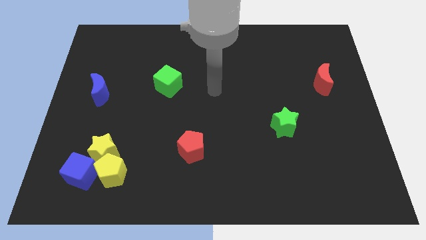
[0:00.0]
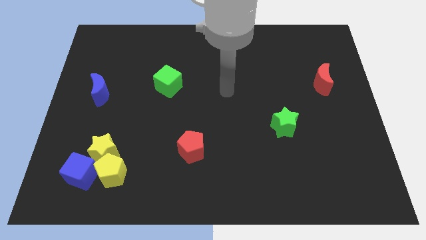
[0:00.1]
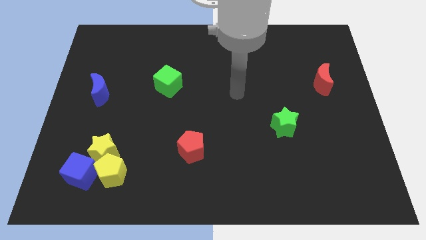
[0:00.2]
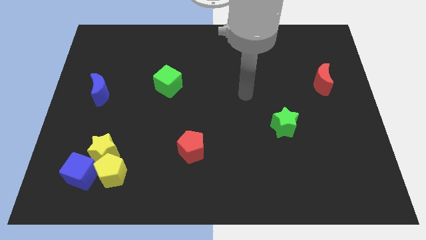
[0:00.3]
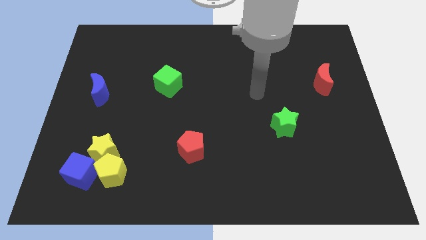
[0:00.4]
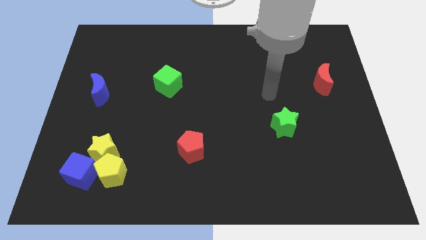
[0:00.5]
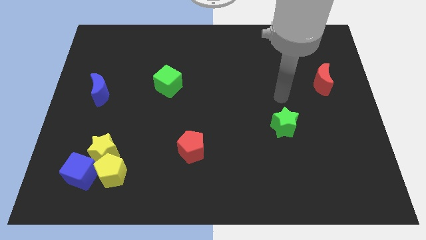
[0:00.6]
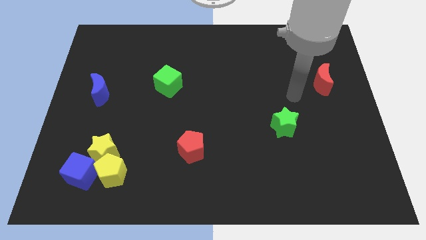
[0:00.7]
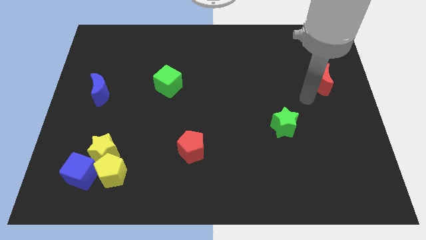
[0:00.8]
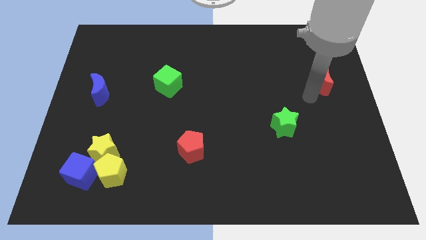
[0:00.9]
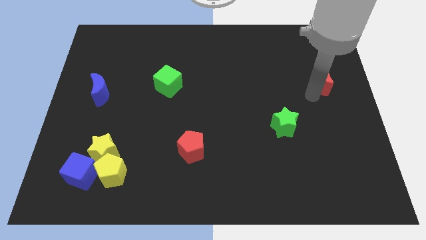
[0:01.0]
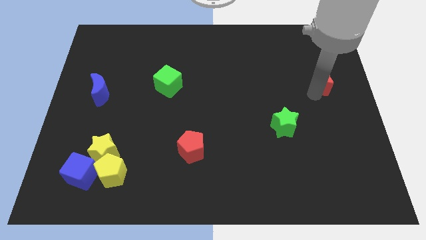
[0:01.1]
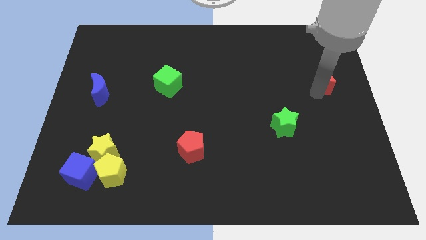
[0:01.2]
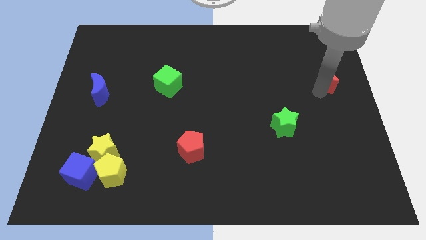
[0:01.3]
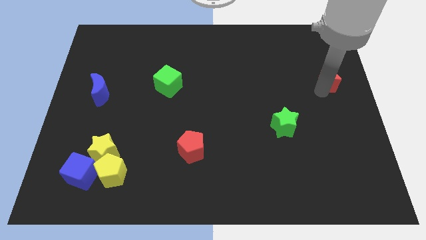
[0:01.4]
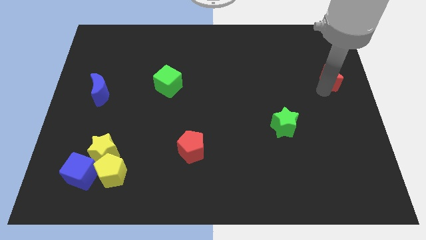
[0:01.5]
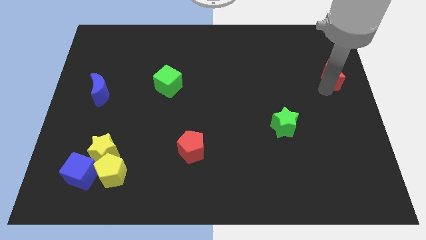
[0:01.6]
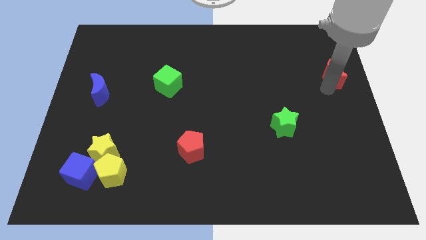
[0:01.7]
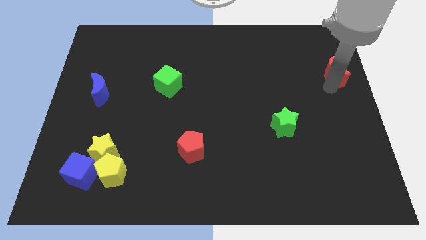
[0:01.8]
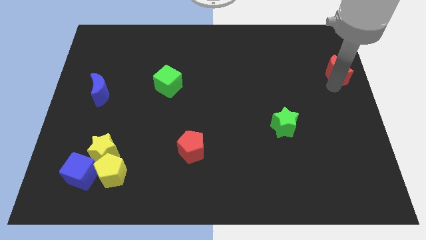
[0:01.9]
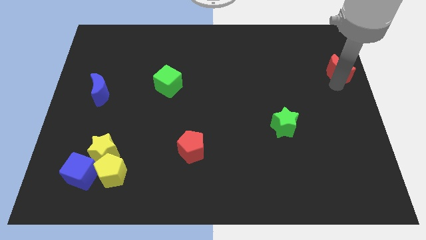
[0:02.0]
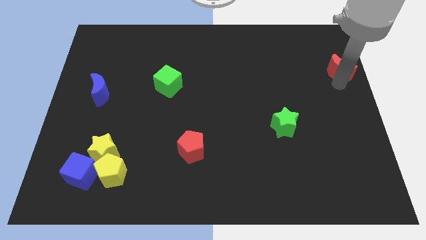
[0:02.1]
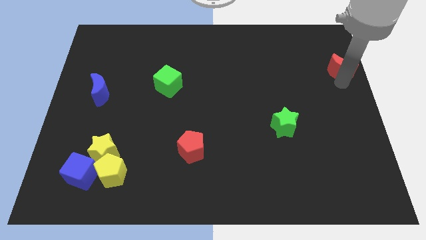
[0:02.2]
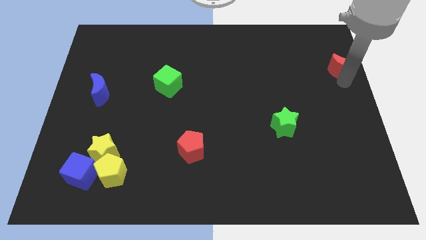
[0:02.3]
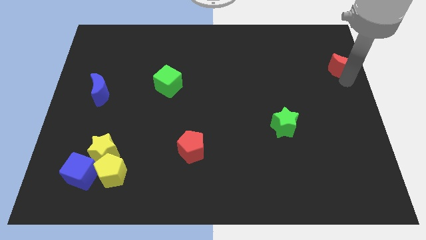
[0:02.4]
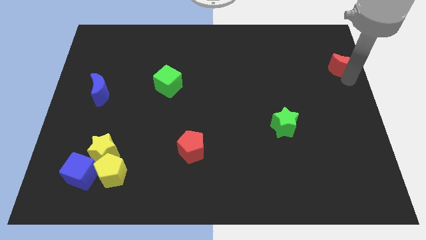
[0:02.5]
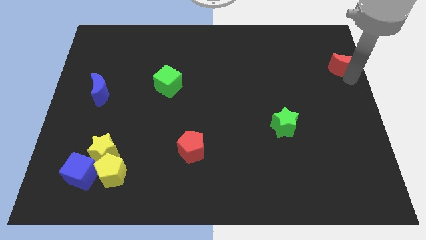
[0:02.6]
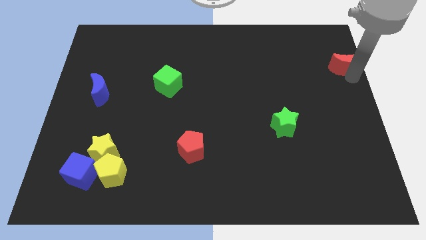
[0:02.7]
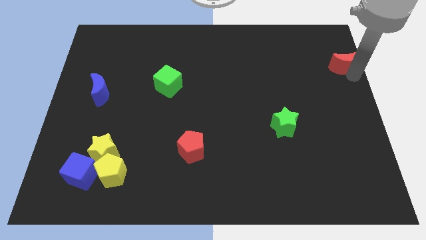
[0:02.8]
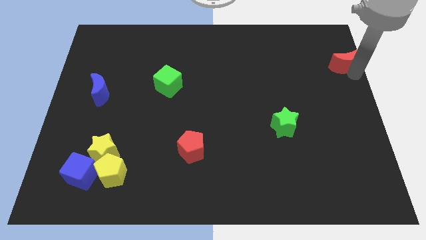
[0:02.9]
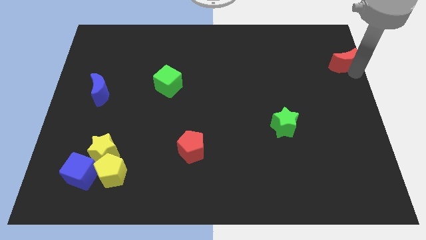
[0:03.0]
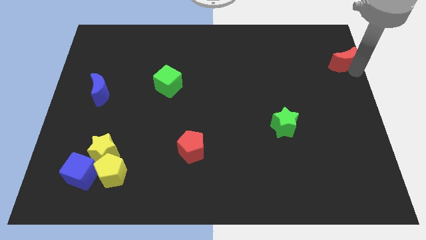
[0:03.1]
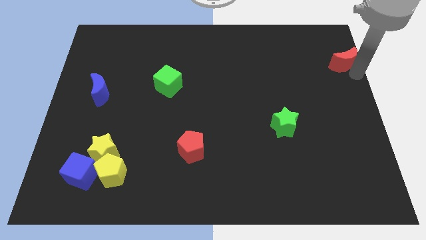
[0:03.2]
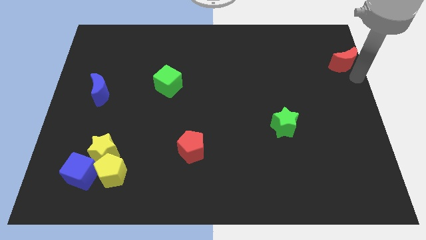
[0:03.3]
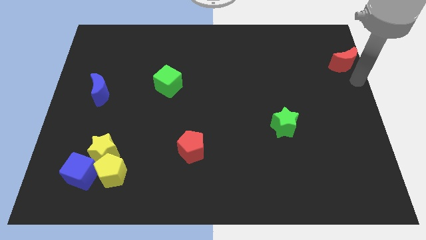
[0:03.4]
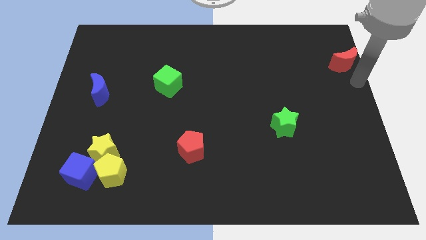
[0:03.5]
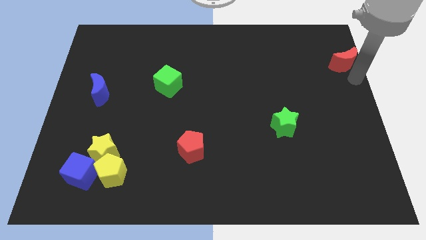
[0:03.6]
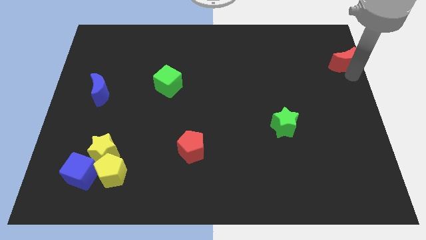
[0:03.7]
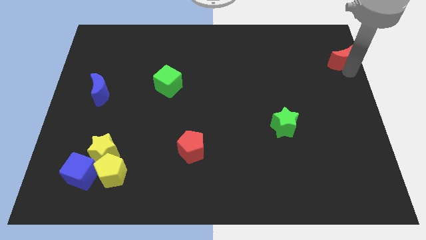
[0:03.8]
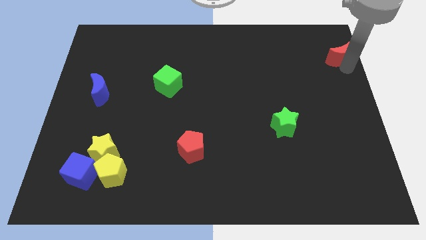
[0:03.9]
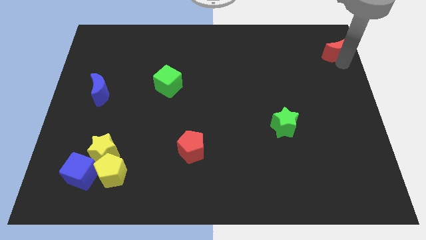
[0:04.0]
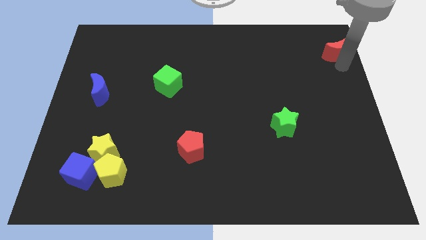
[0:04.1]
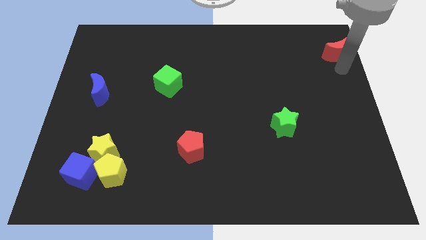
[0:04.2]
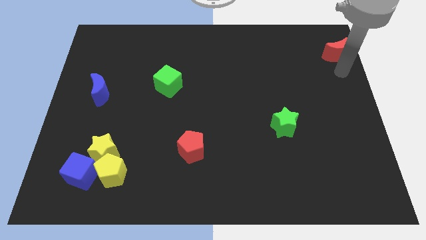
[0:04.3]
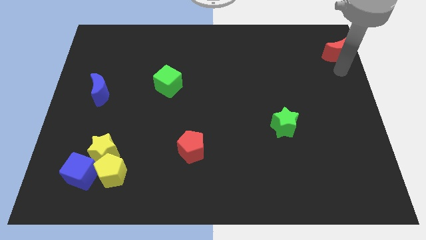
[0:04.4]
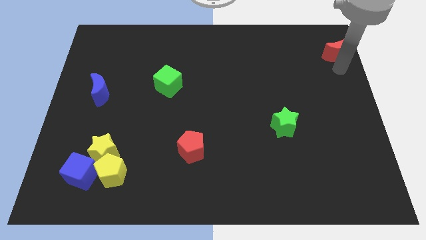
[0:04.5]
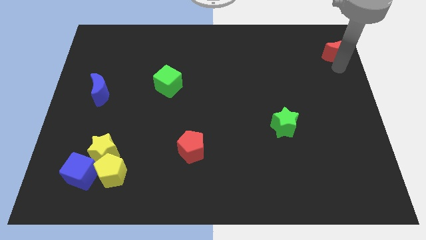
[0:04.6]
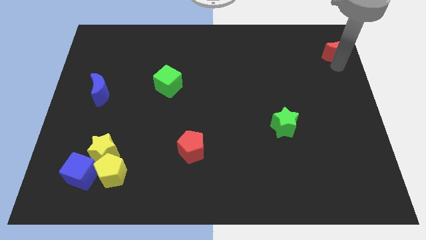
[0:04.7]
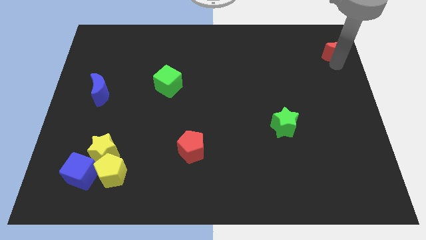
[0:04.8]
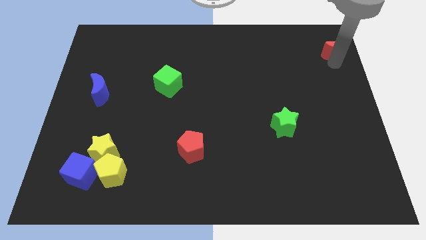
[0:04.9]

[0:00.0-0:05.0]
slide the red moon to the upper right corner

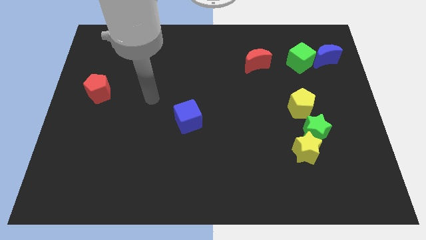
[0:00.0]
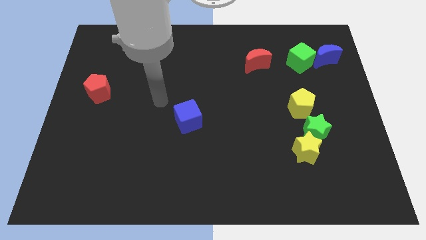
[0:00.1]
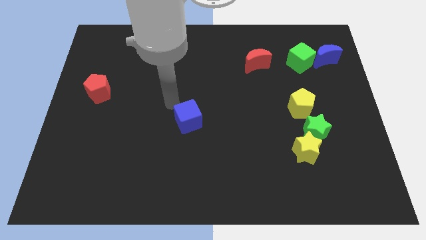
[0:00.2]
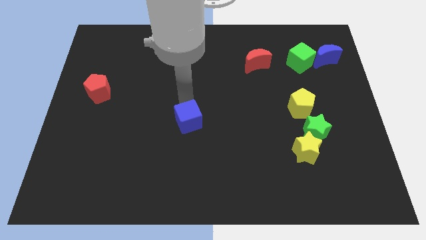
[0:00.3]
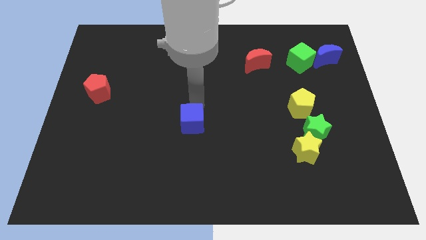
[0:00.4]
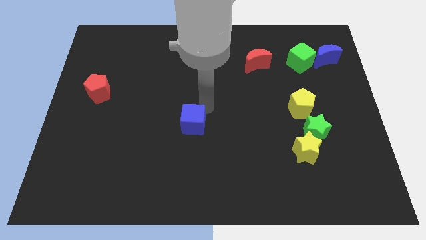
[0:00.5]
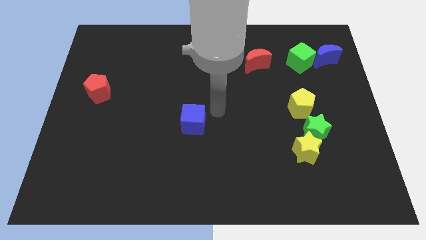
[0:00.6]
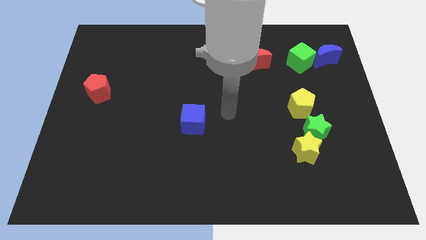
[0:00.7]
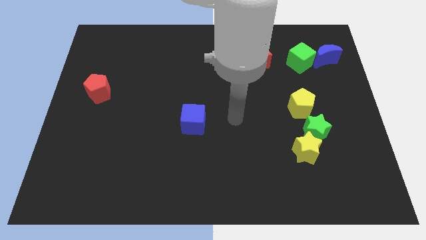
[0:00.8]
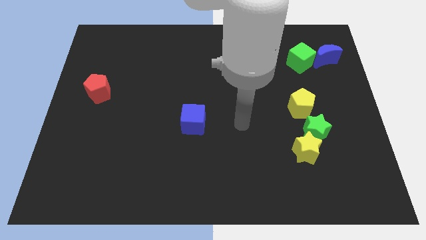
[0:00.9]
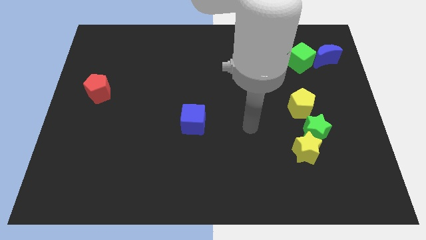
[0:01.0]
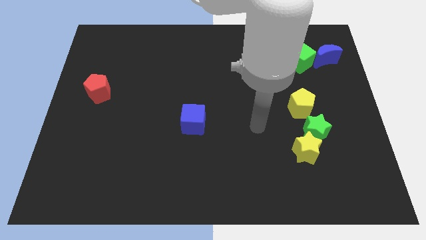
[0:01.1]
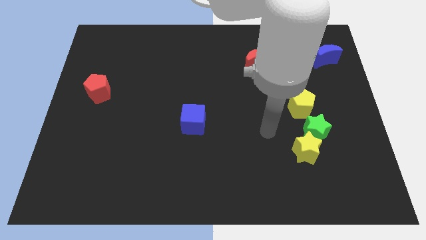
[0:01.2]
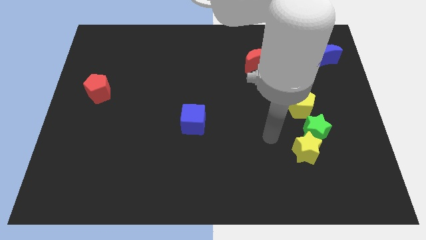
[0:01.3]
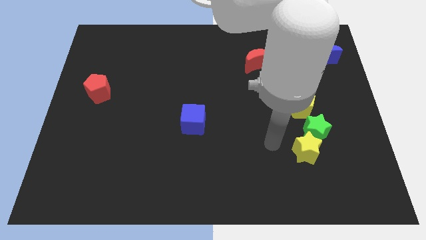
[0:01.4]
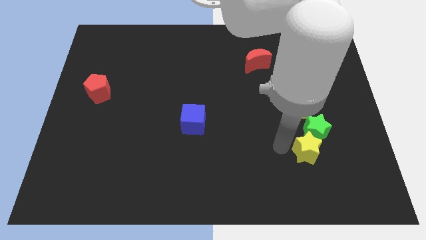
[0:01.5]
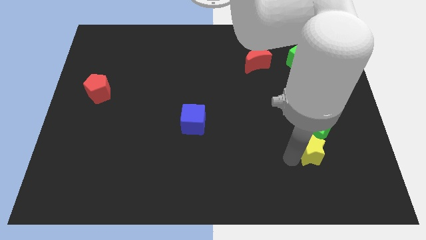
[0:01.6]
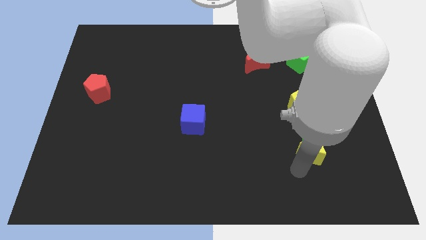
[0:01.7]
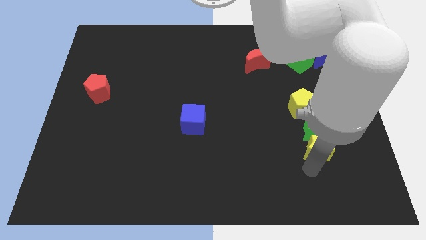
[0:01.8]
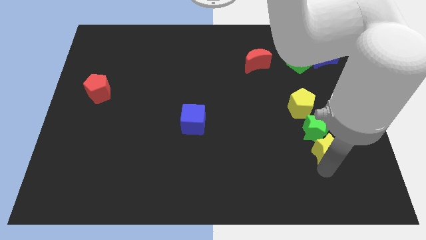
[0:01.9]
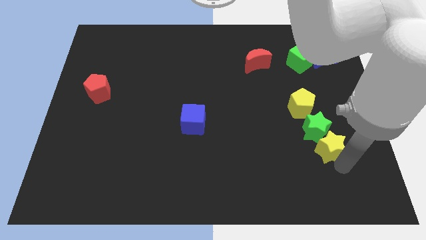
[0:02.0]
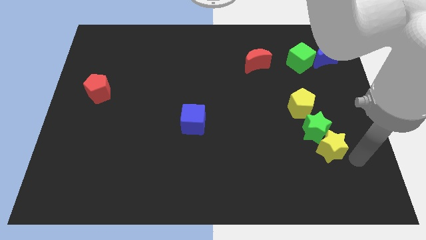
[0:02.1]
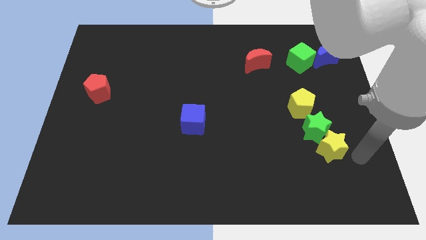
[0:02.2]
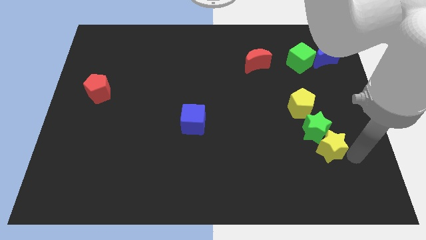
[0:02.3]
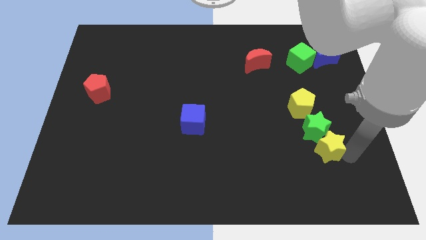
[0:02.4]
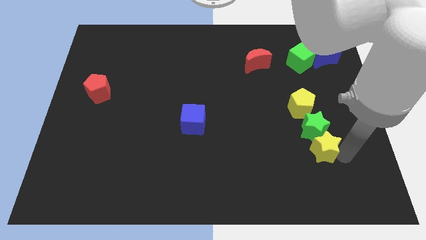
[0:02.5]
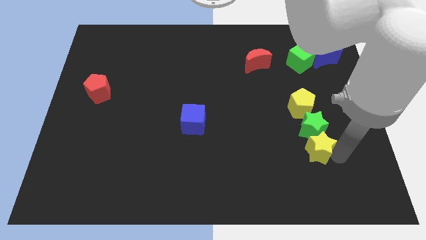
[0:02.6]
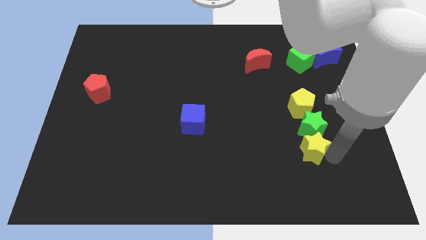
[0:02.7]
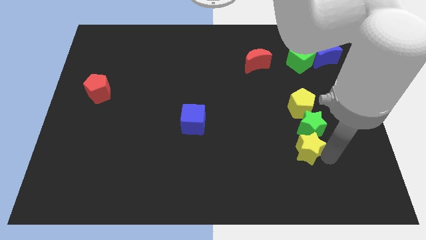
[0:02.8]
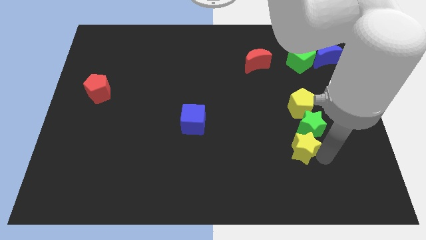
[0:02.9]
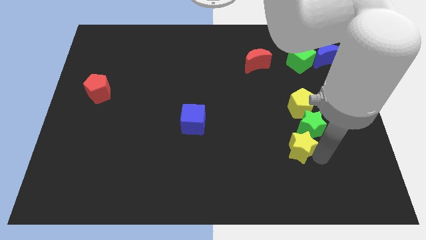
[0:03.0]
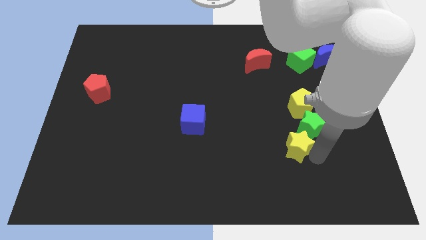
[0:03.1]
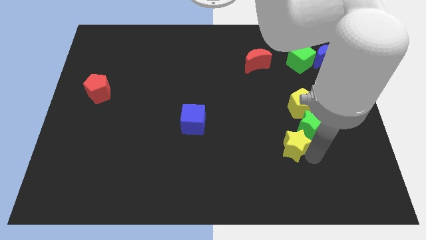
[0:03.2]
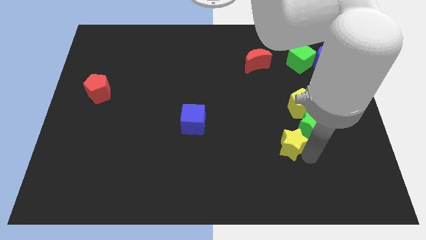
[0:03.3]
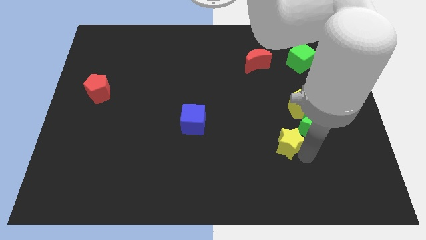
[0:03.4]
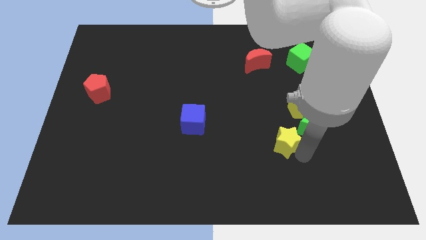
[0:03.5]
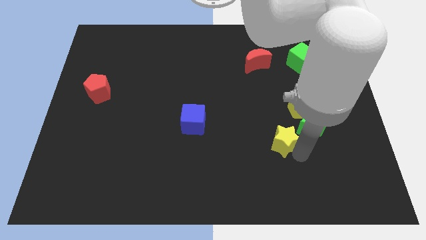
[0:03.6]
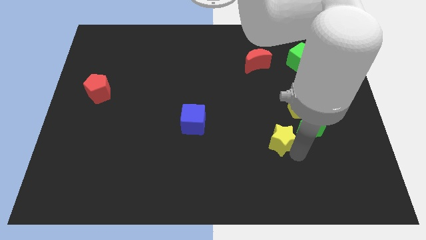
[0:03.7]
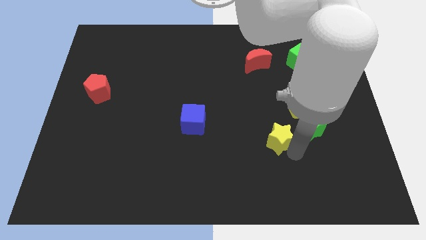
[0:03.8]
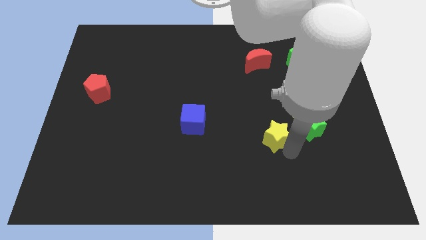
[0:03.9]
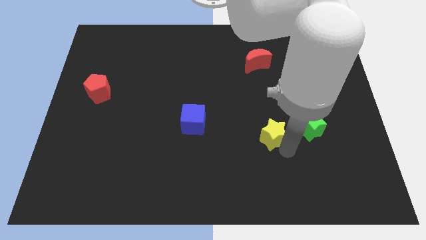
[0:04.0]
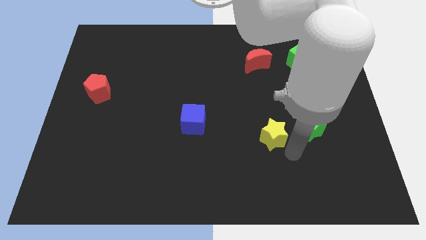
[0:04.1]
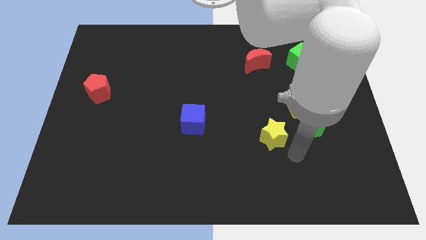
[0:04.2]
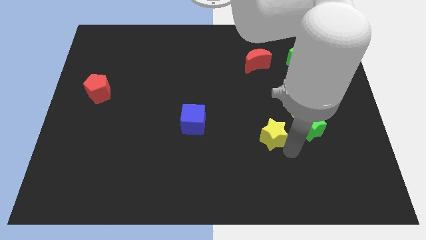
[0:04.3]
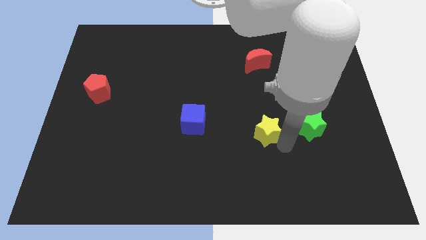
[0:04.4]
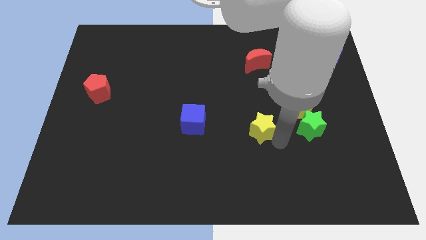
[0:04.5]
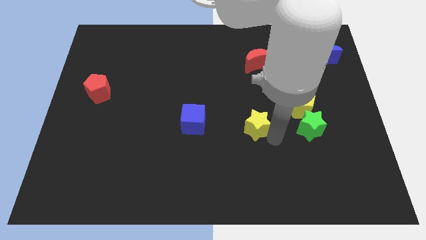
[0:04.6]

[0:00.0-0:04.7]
put the yellow star to the center of the board
